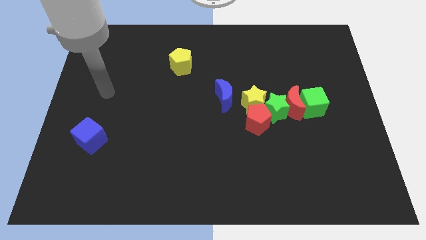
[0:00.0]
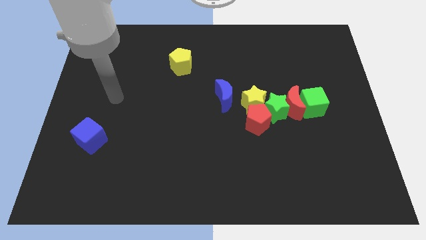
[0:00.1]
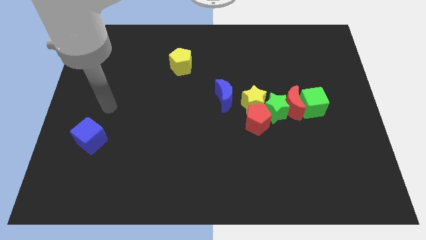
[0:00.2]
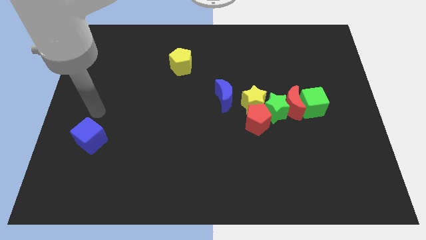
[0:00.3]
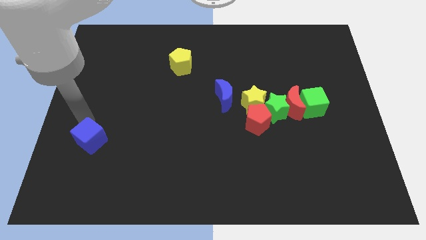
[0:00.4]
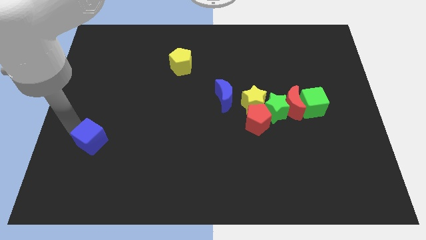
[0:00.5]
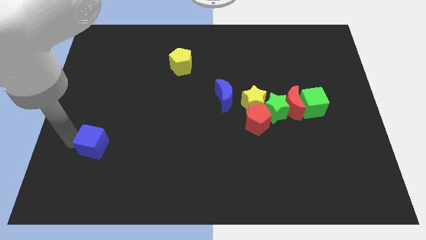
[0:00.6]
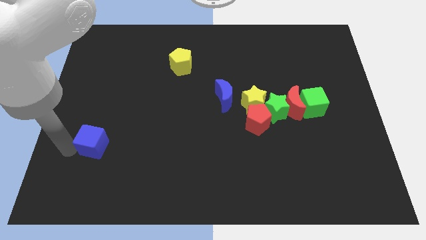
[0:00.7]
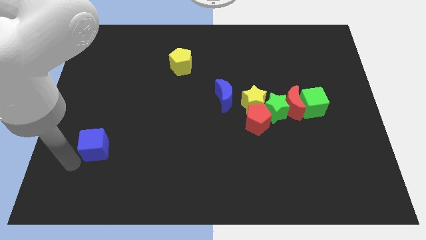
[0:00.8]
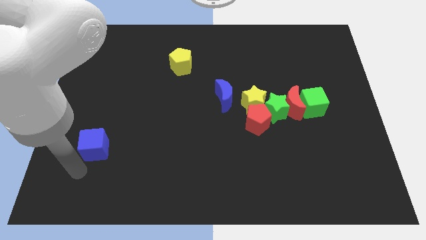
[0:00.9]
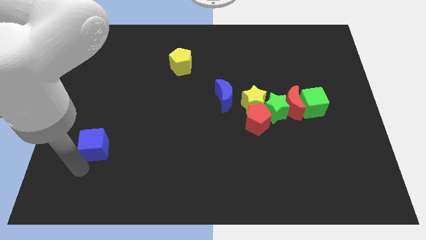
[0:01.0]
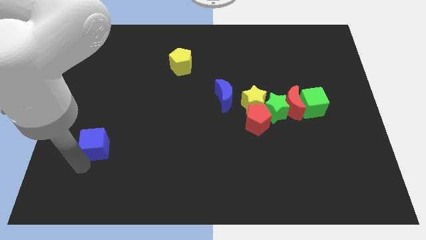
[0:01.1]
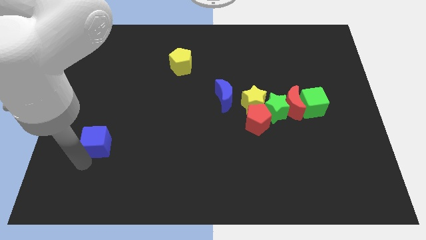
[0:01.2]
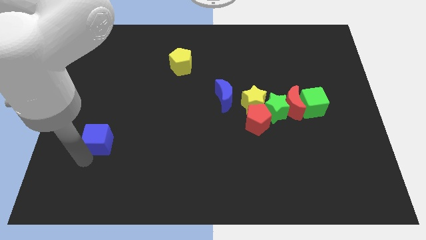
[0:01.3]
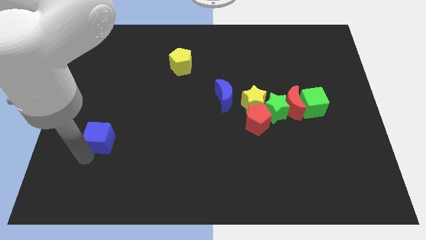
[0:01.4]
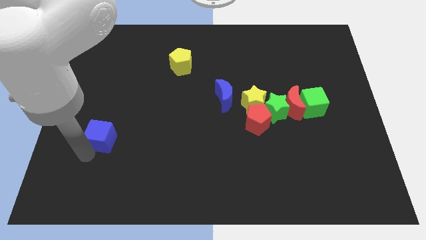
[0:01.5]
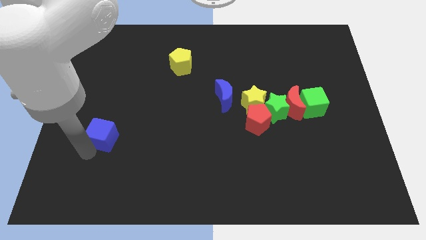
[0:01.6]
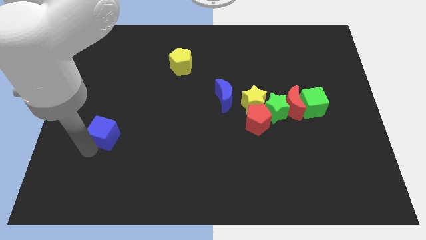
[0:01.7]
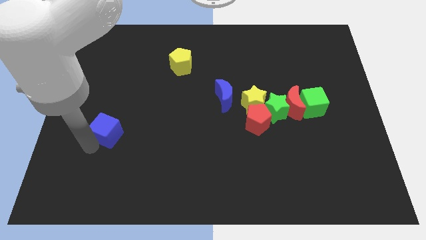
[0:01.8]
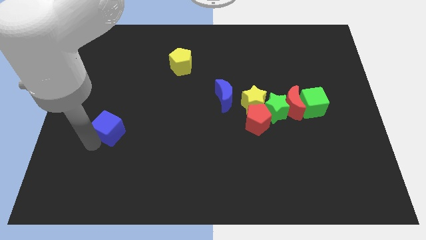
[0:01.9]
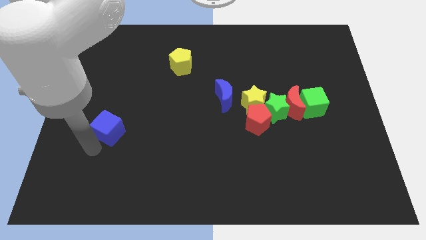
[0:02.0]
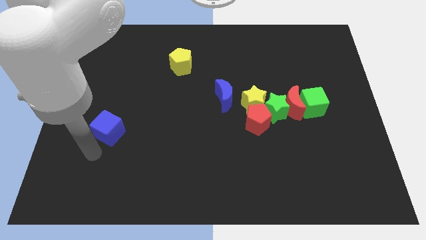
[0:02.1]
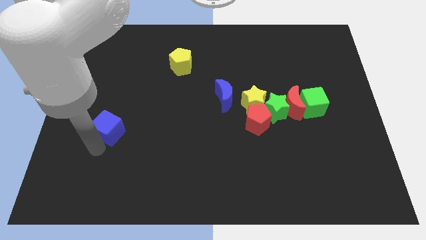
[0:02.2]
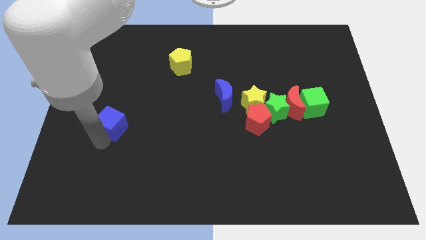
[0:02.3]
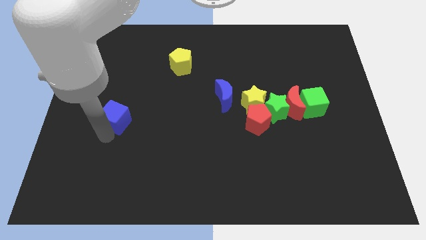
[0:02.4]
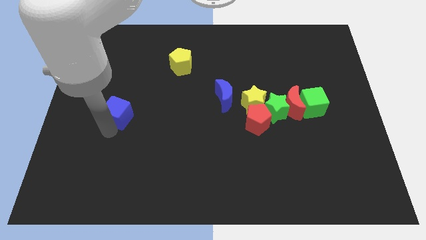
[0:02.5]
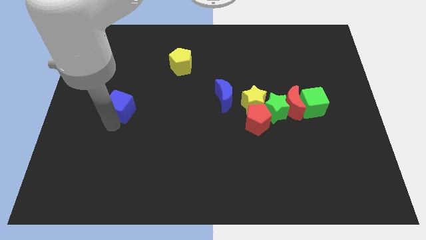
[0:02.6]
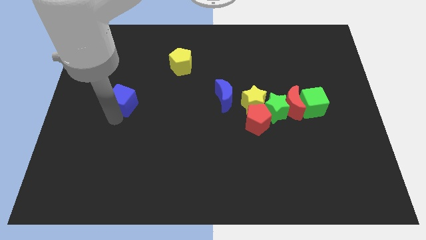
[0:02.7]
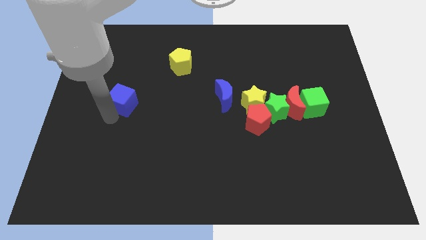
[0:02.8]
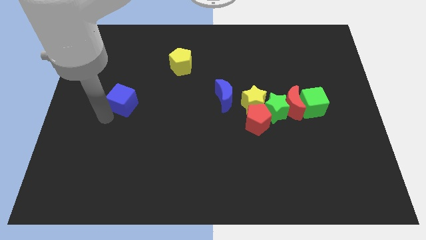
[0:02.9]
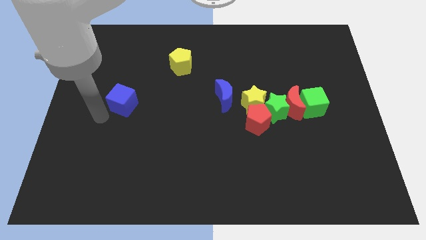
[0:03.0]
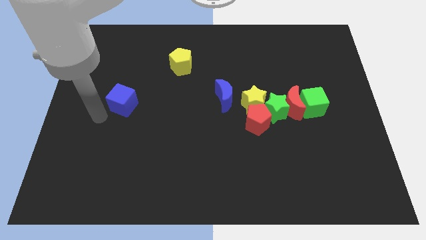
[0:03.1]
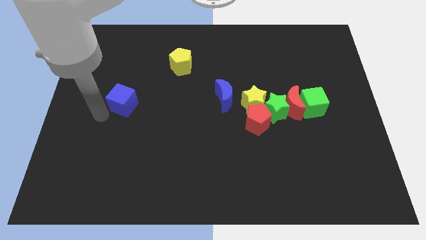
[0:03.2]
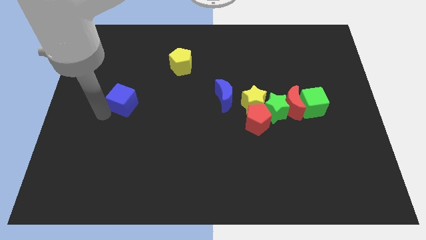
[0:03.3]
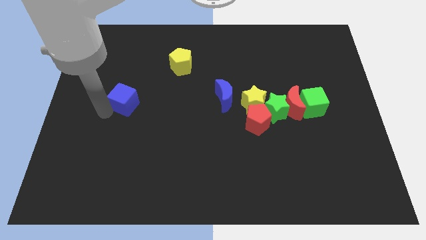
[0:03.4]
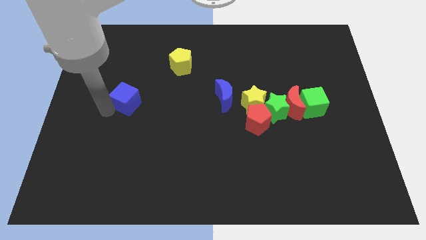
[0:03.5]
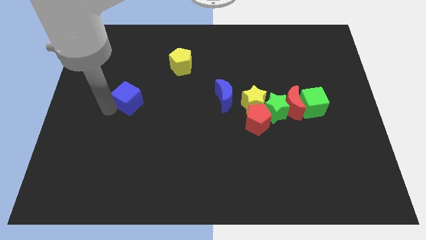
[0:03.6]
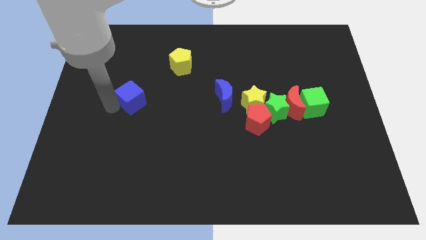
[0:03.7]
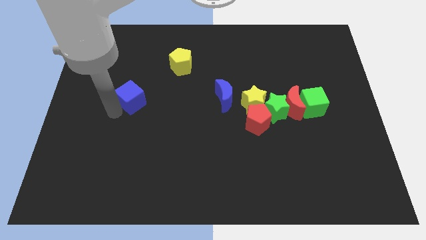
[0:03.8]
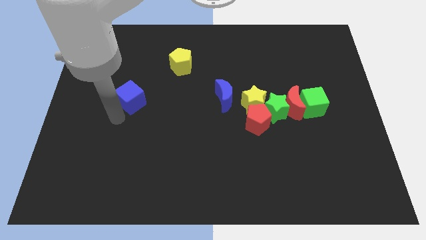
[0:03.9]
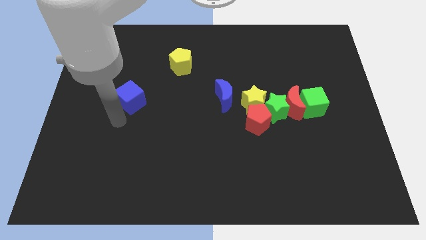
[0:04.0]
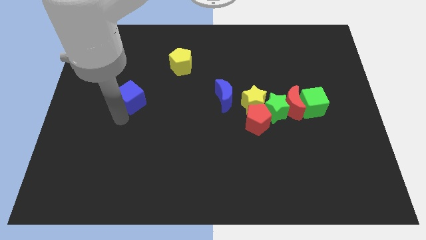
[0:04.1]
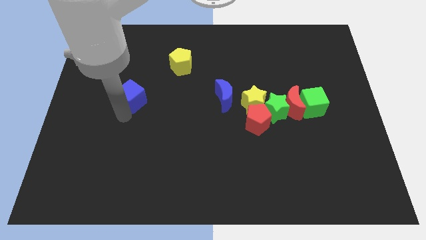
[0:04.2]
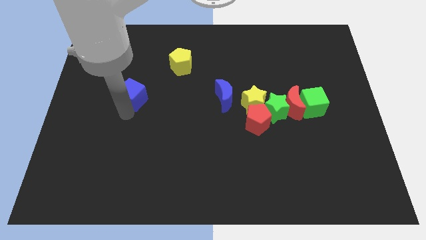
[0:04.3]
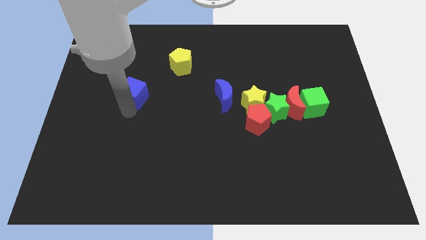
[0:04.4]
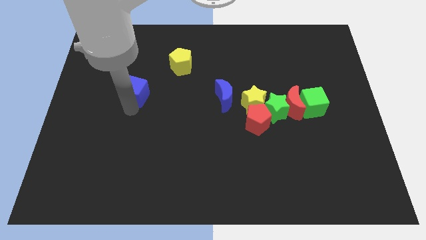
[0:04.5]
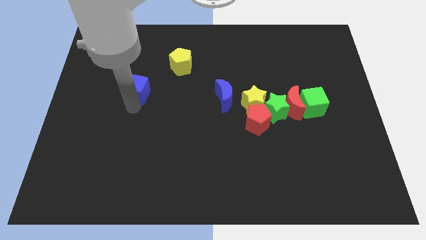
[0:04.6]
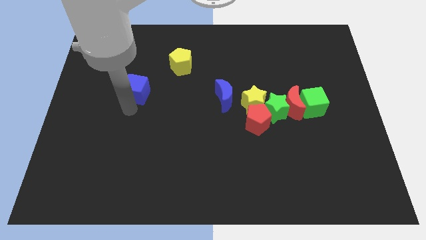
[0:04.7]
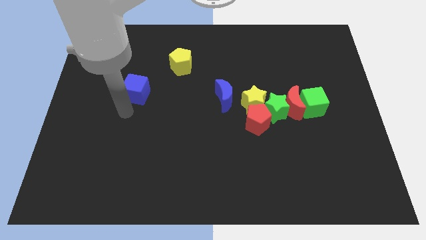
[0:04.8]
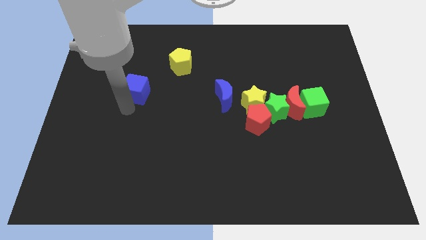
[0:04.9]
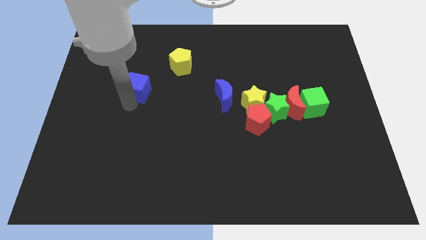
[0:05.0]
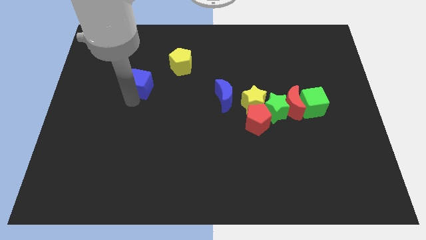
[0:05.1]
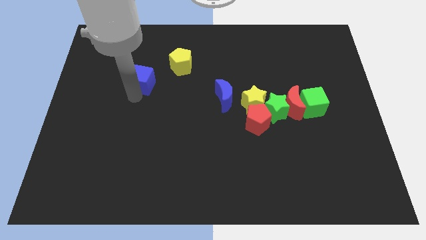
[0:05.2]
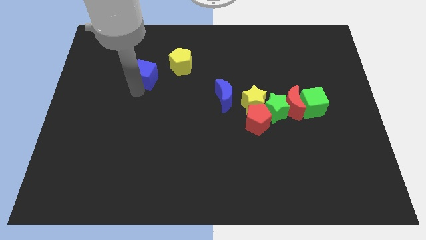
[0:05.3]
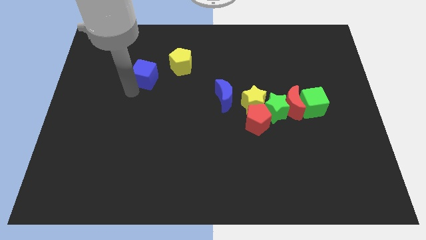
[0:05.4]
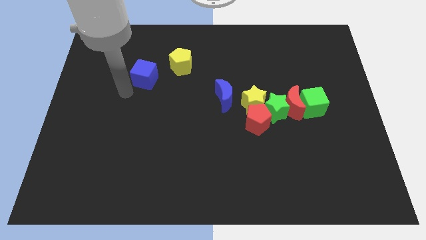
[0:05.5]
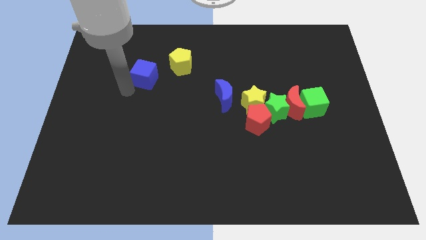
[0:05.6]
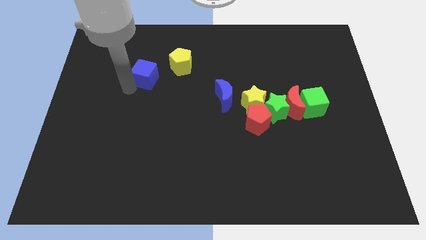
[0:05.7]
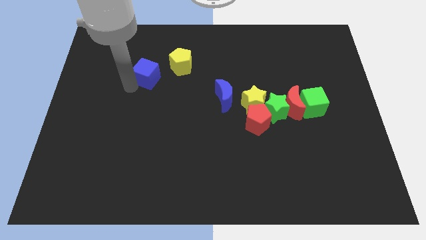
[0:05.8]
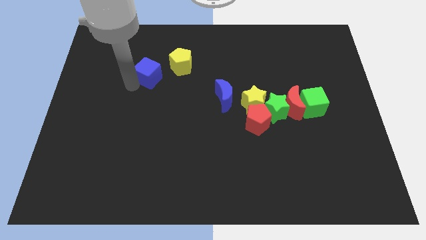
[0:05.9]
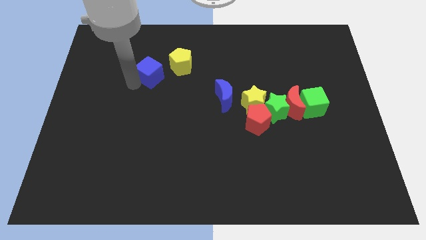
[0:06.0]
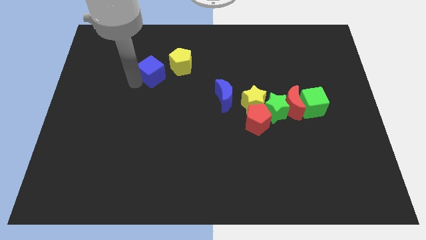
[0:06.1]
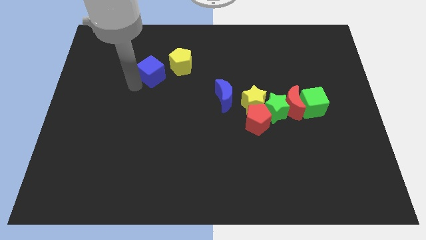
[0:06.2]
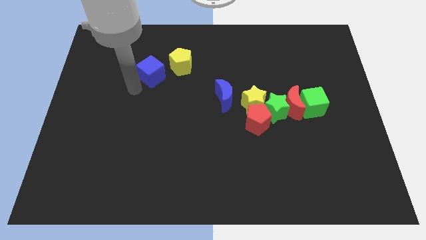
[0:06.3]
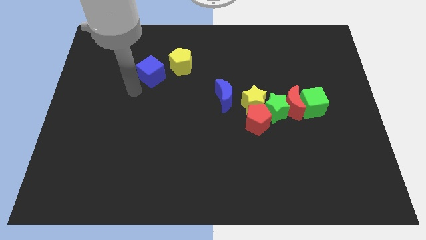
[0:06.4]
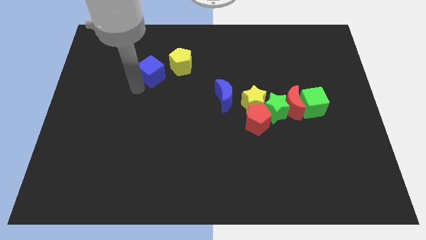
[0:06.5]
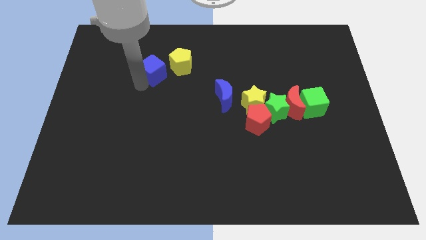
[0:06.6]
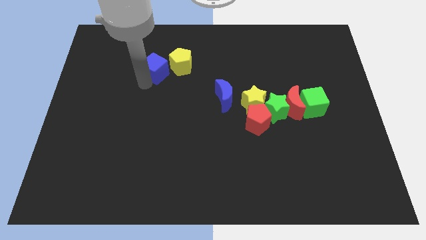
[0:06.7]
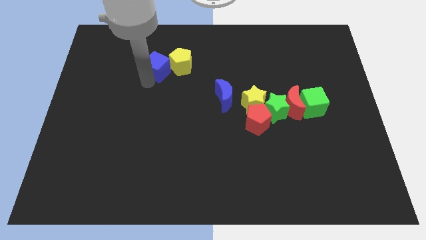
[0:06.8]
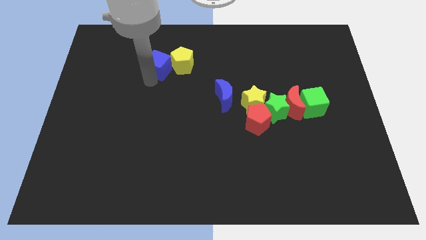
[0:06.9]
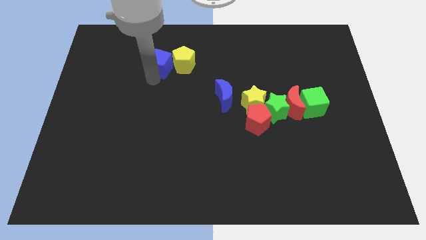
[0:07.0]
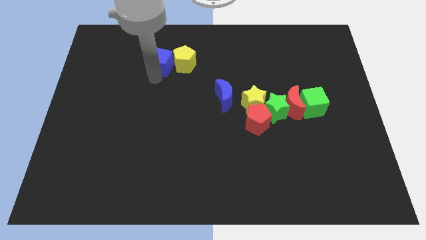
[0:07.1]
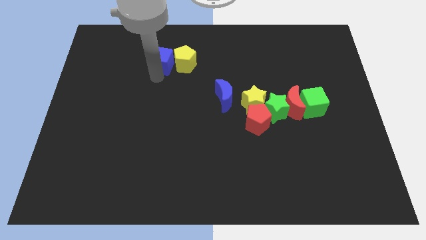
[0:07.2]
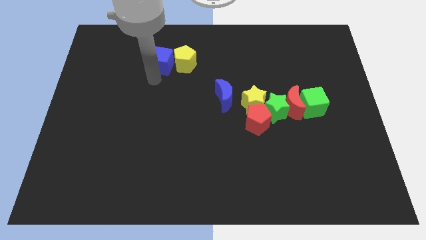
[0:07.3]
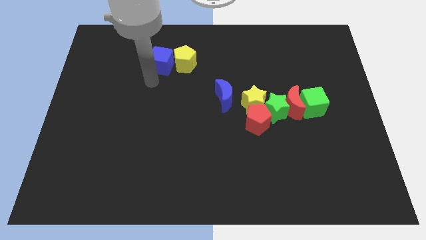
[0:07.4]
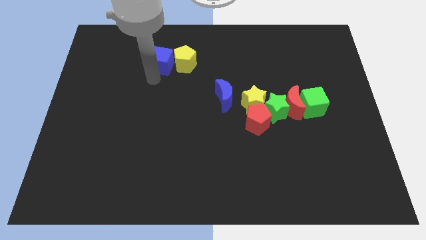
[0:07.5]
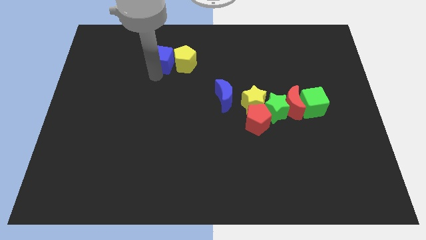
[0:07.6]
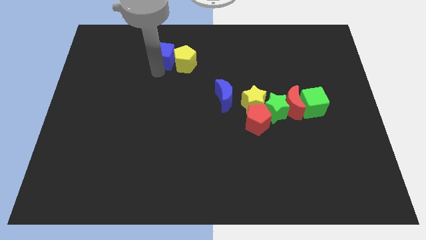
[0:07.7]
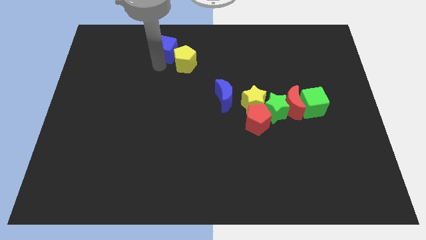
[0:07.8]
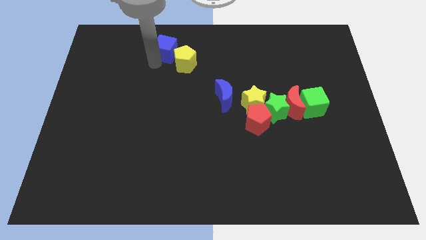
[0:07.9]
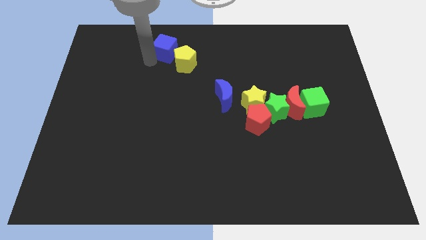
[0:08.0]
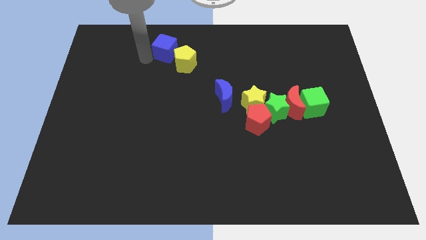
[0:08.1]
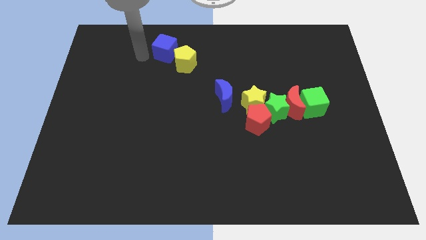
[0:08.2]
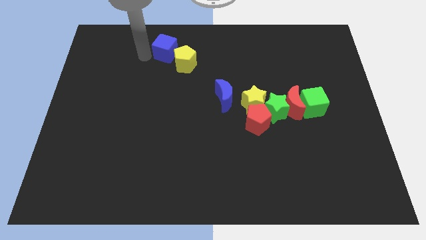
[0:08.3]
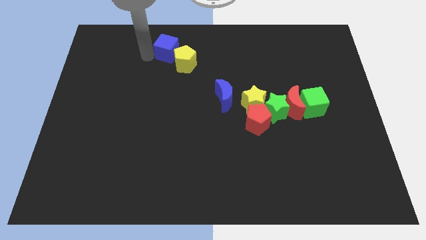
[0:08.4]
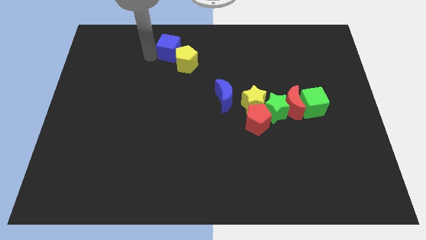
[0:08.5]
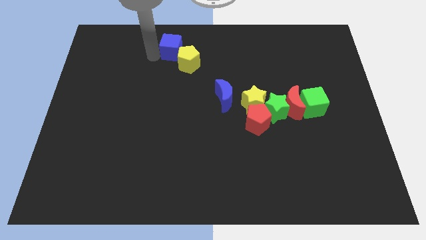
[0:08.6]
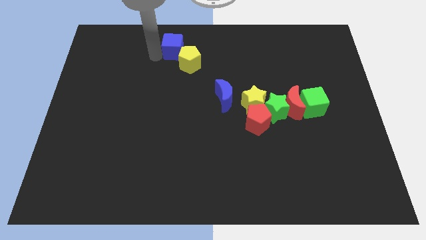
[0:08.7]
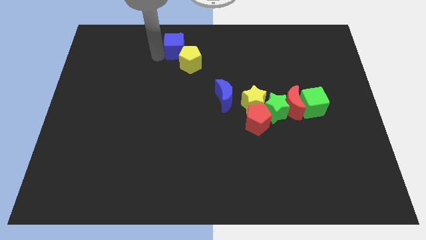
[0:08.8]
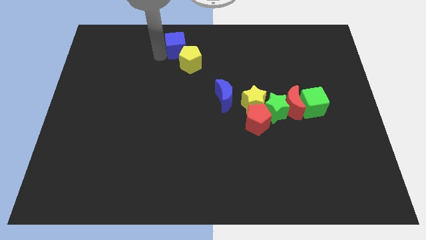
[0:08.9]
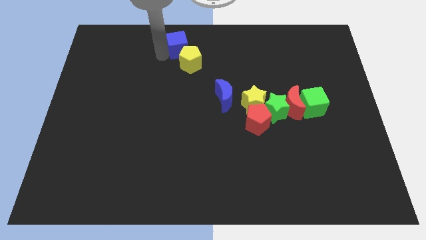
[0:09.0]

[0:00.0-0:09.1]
slide the blue cube to the top side
